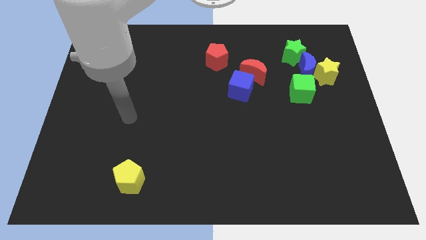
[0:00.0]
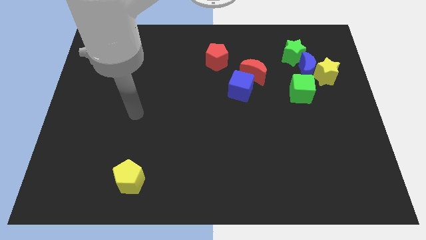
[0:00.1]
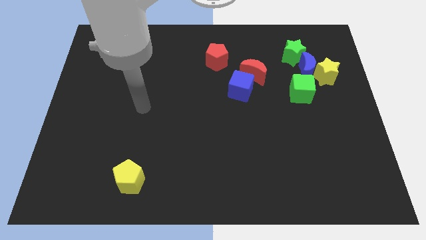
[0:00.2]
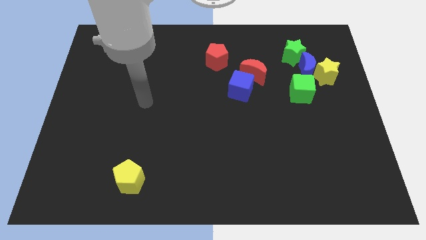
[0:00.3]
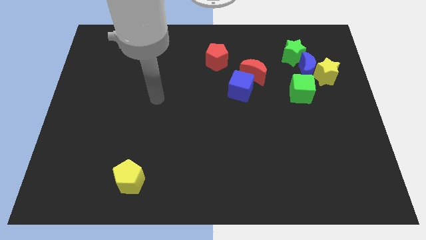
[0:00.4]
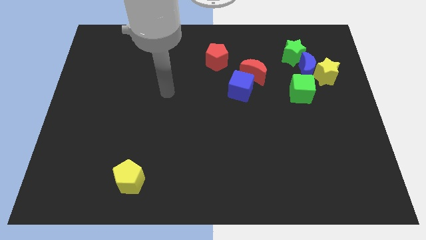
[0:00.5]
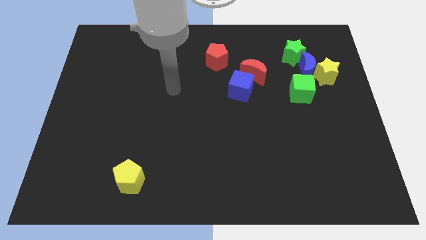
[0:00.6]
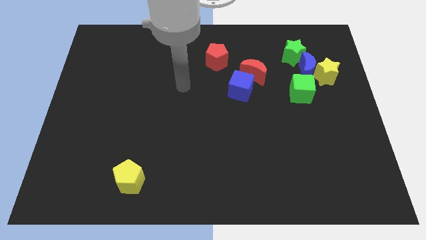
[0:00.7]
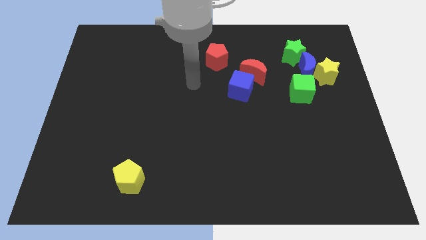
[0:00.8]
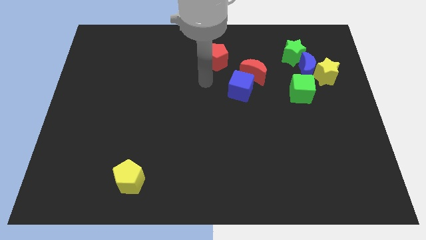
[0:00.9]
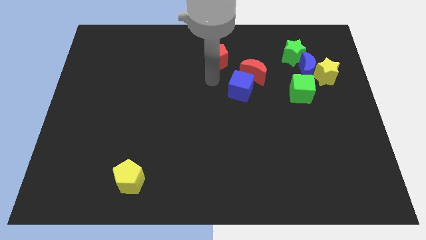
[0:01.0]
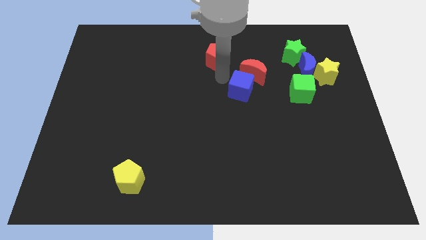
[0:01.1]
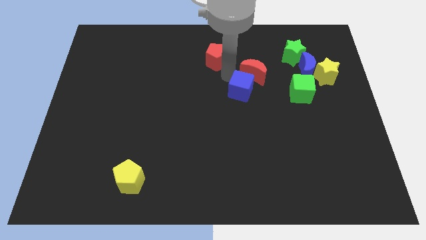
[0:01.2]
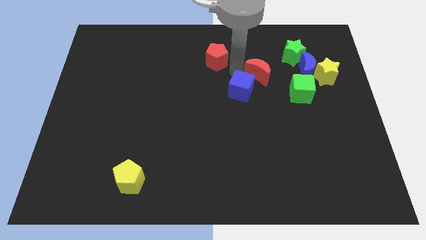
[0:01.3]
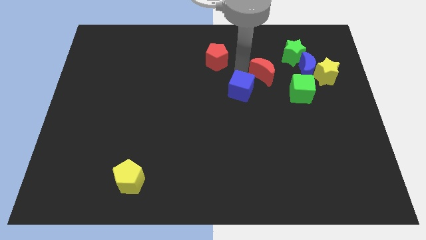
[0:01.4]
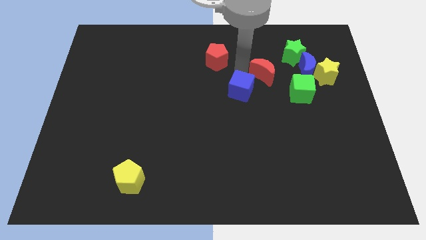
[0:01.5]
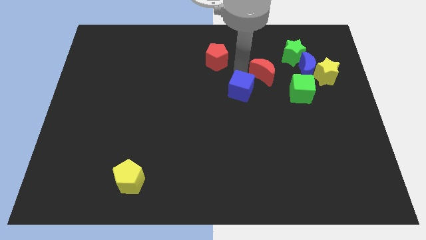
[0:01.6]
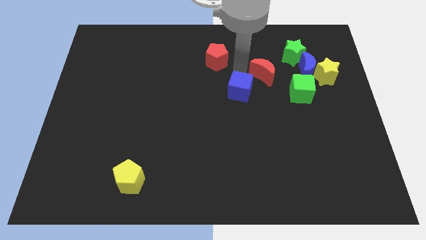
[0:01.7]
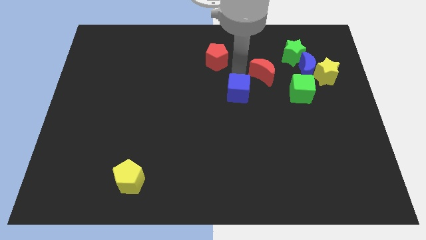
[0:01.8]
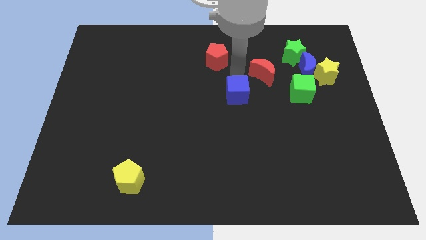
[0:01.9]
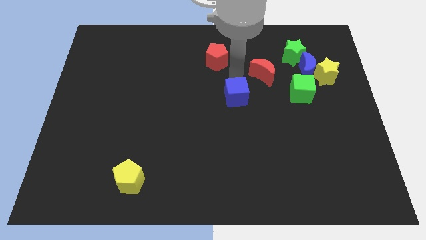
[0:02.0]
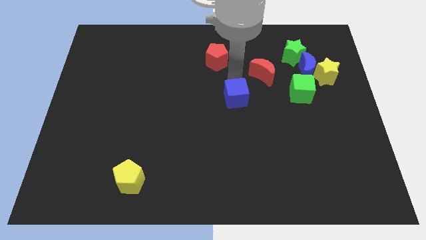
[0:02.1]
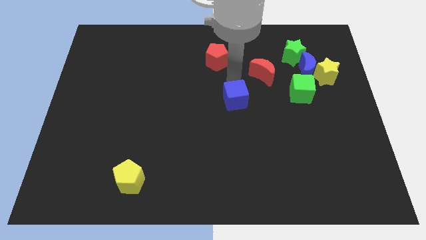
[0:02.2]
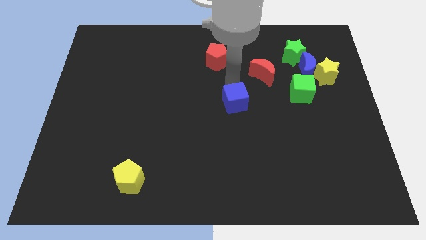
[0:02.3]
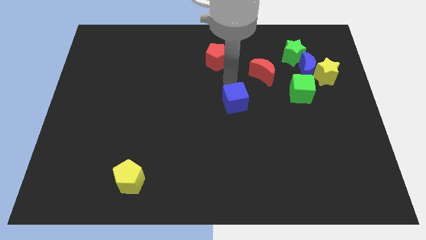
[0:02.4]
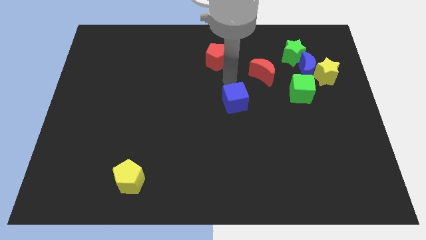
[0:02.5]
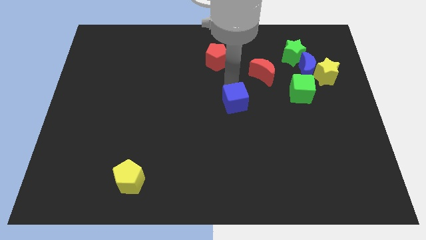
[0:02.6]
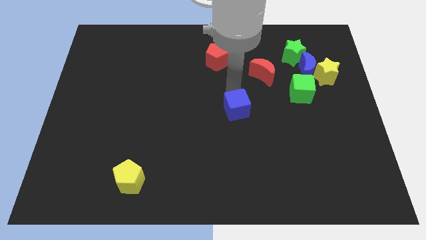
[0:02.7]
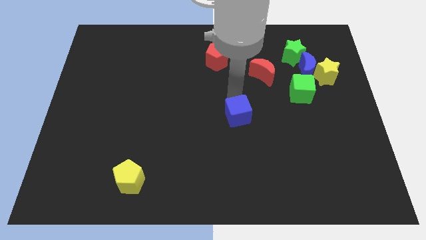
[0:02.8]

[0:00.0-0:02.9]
slide the blue cube down a little bit

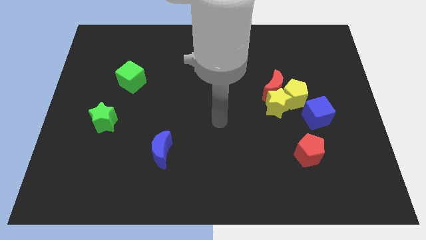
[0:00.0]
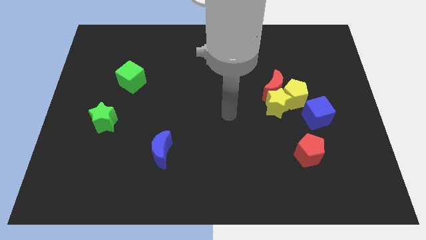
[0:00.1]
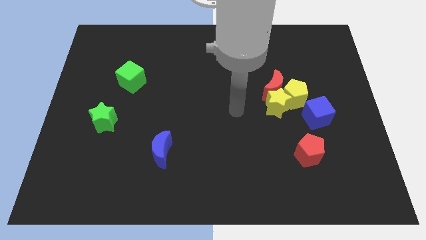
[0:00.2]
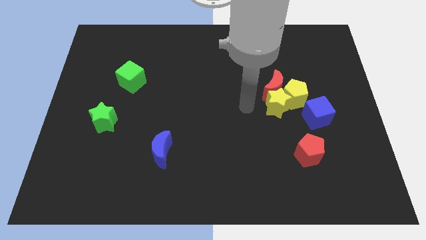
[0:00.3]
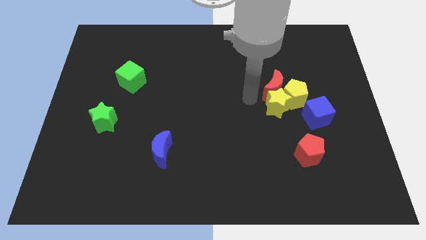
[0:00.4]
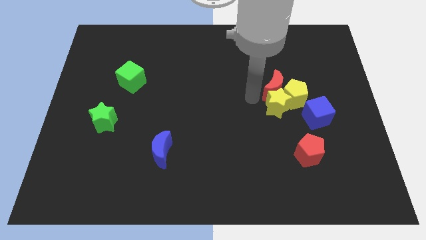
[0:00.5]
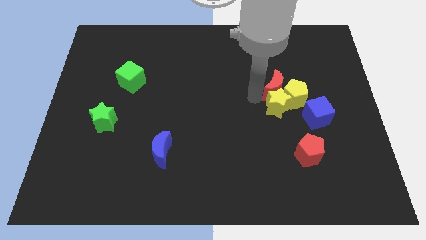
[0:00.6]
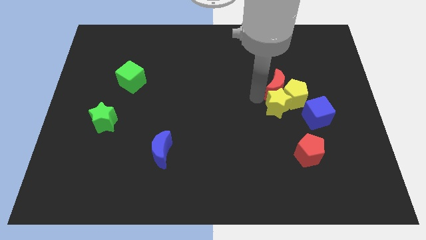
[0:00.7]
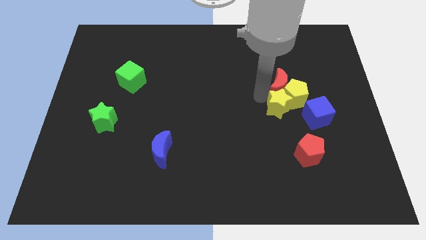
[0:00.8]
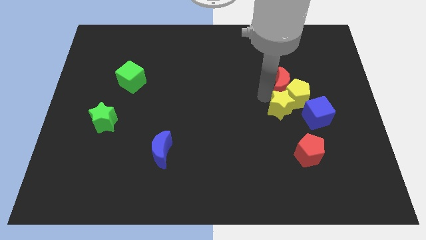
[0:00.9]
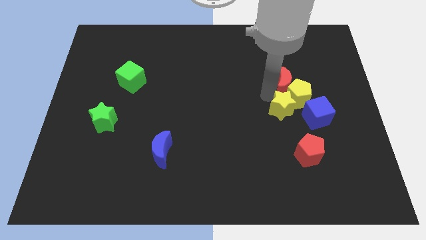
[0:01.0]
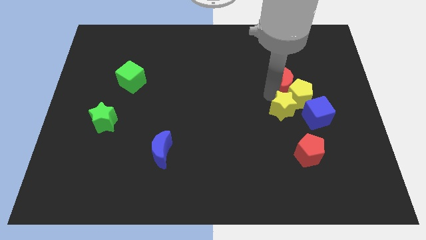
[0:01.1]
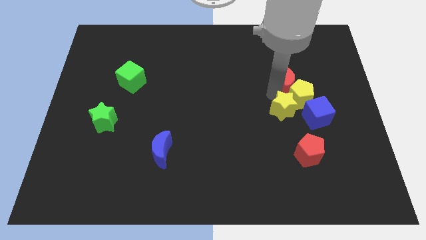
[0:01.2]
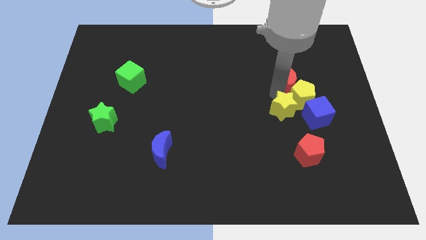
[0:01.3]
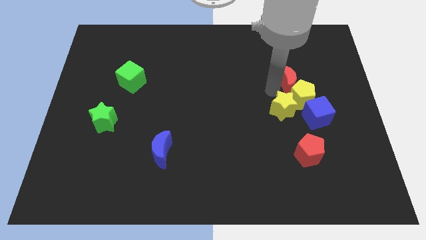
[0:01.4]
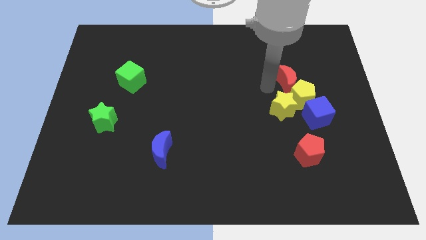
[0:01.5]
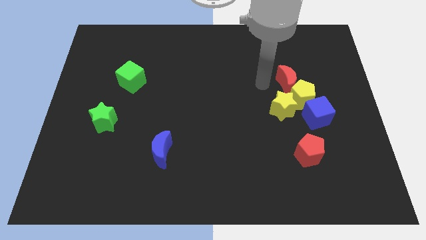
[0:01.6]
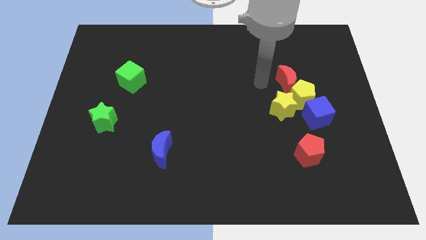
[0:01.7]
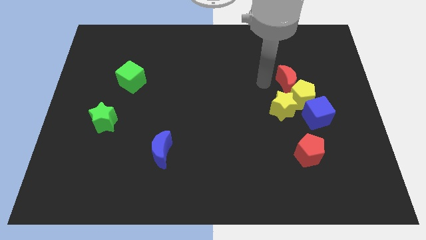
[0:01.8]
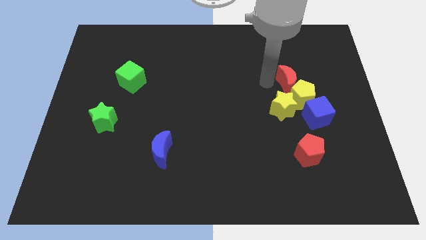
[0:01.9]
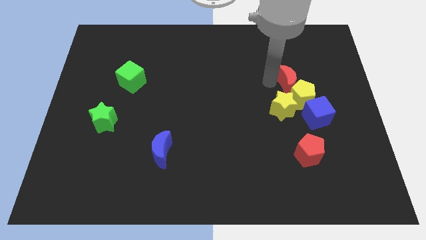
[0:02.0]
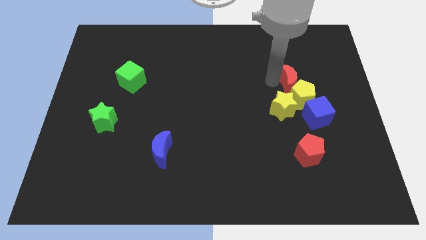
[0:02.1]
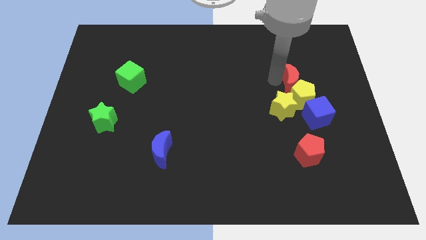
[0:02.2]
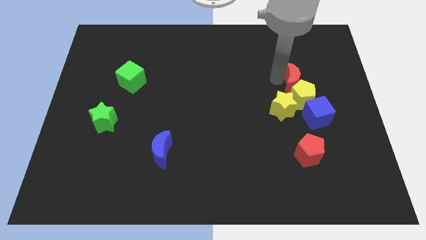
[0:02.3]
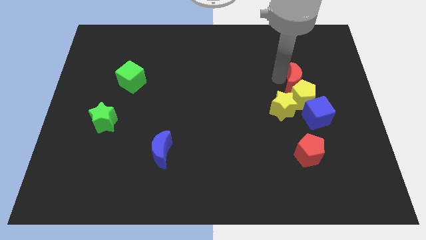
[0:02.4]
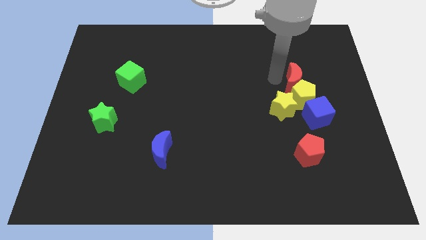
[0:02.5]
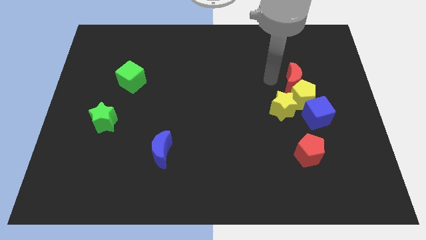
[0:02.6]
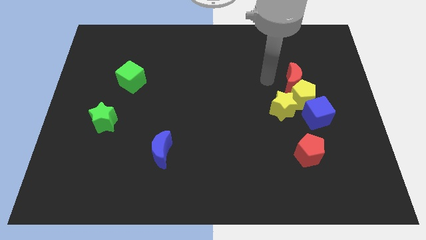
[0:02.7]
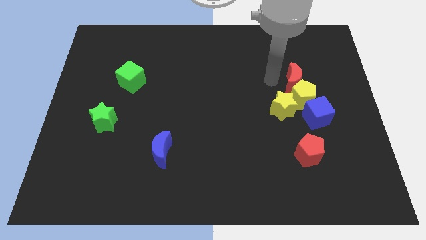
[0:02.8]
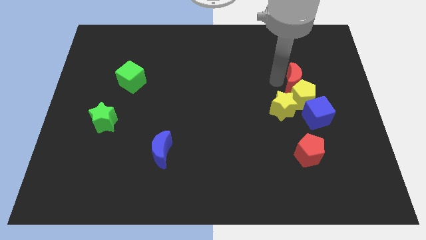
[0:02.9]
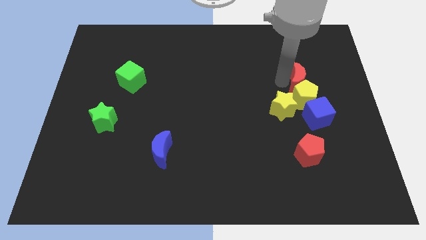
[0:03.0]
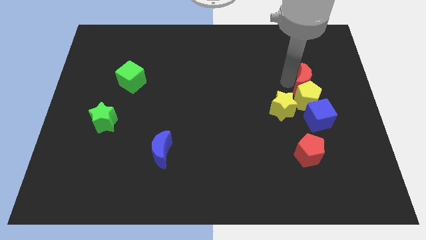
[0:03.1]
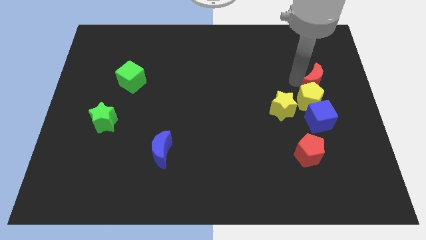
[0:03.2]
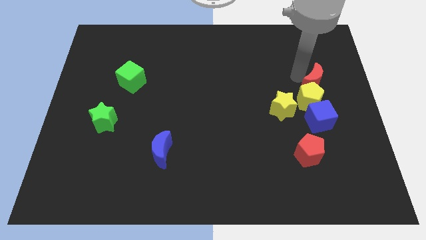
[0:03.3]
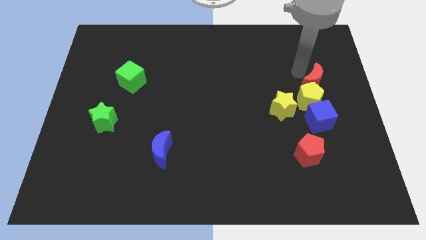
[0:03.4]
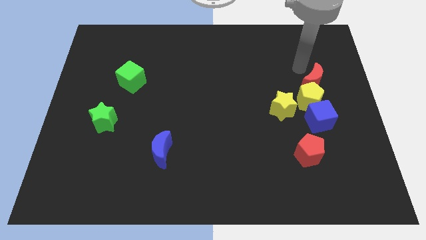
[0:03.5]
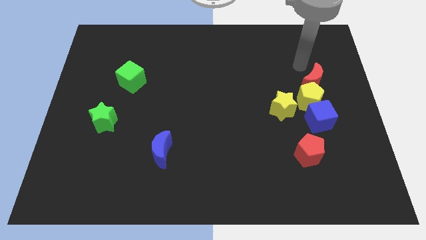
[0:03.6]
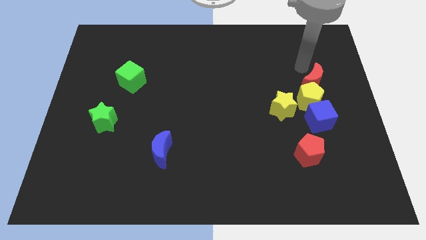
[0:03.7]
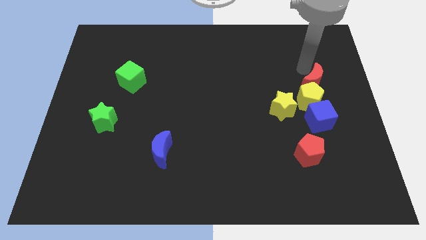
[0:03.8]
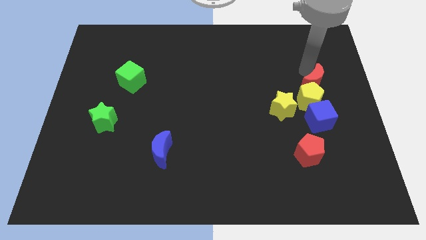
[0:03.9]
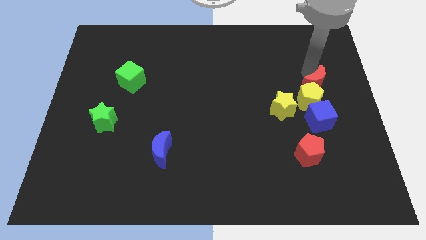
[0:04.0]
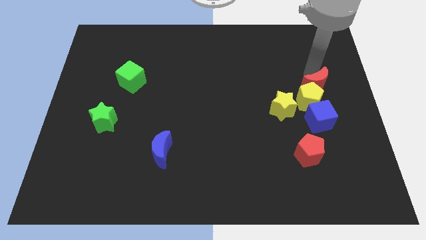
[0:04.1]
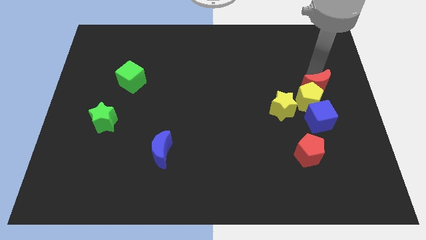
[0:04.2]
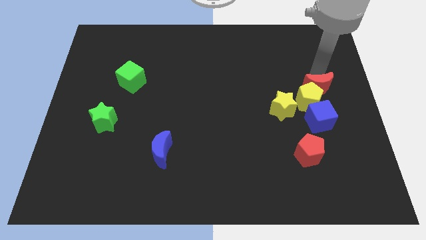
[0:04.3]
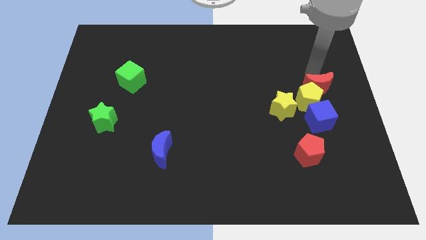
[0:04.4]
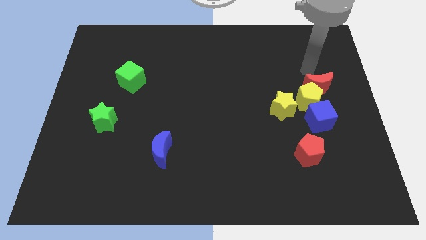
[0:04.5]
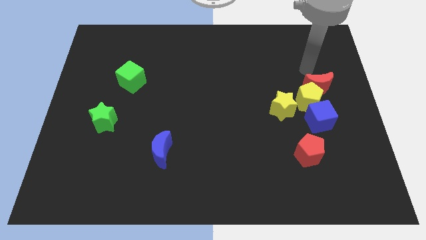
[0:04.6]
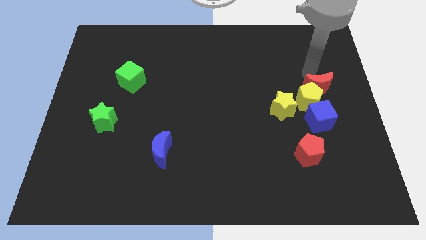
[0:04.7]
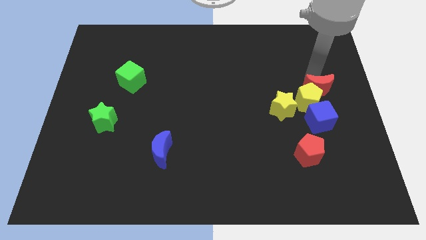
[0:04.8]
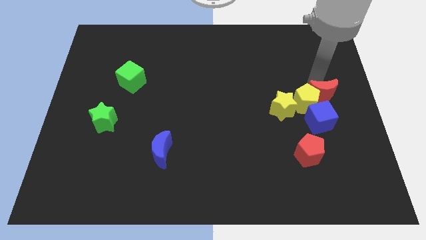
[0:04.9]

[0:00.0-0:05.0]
slightly slide the red moon diagonally down and to the right

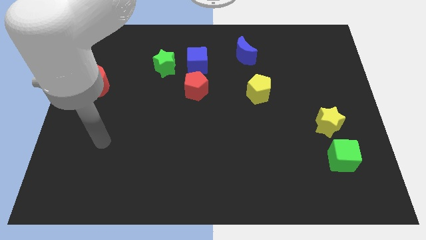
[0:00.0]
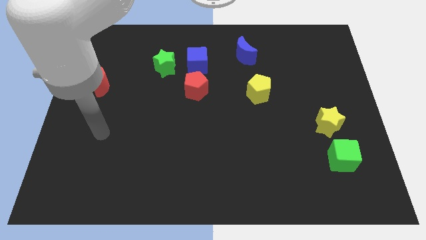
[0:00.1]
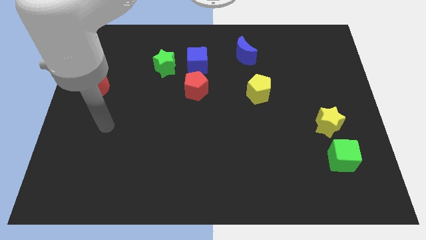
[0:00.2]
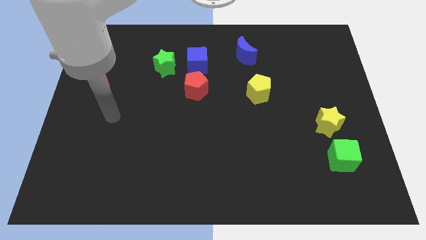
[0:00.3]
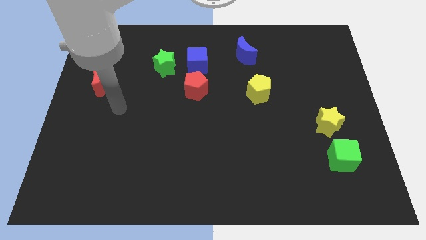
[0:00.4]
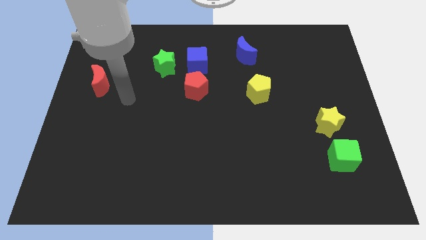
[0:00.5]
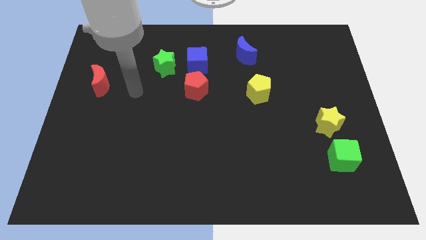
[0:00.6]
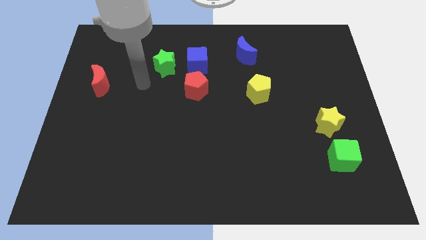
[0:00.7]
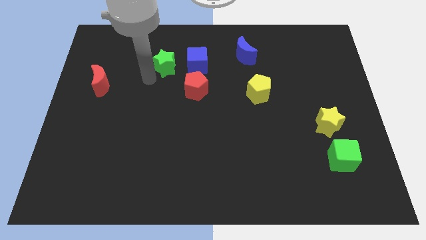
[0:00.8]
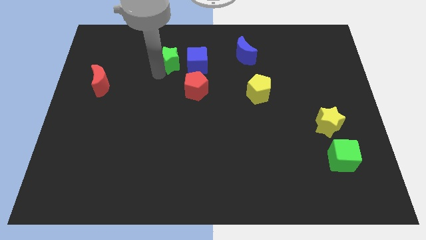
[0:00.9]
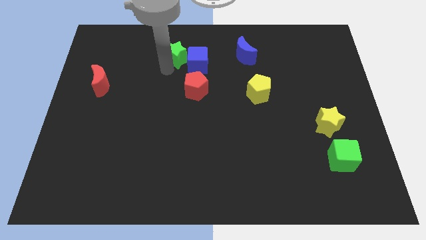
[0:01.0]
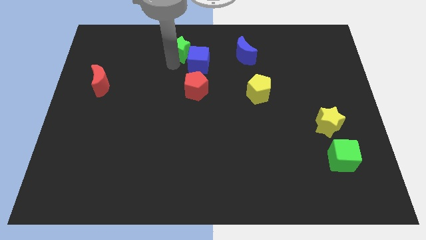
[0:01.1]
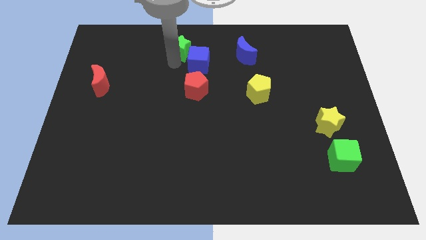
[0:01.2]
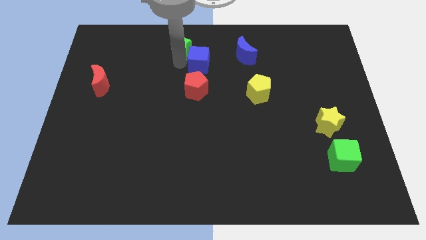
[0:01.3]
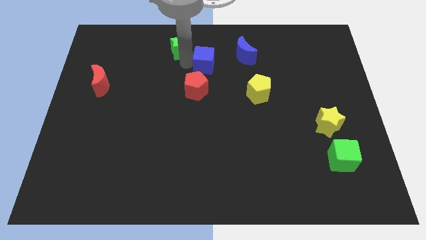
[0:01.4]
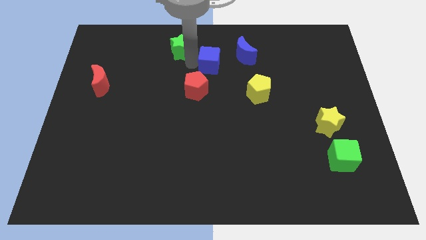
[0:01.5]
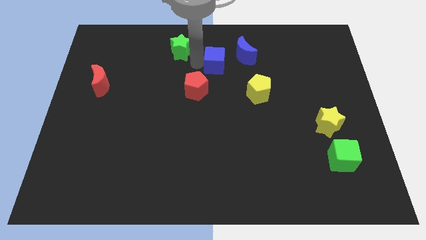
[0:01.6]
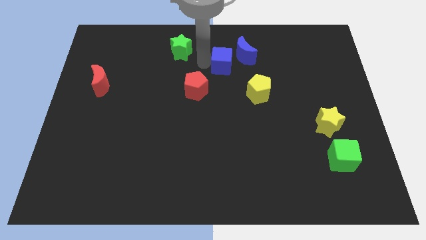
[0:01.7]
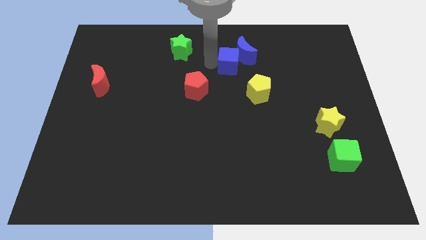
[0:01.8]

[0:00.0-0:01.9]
slide the blue cube somewhat to the right
